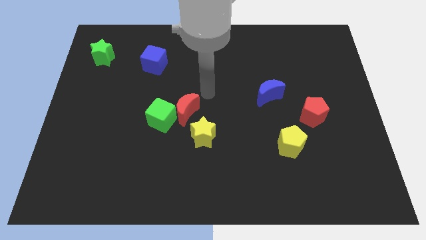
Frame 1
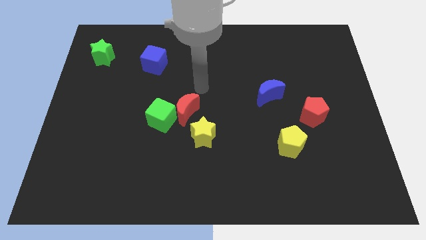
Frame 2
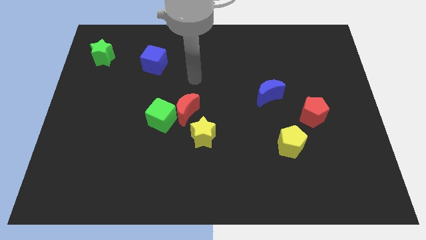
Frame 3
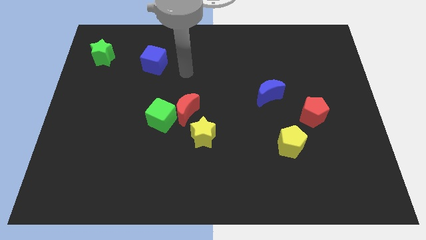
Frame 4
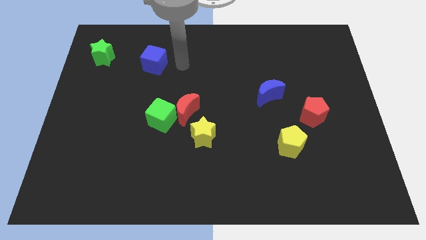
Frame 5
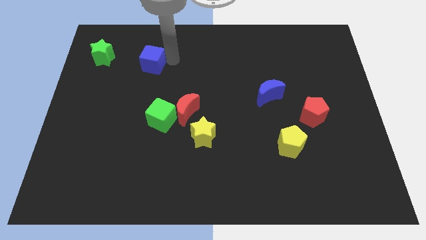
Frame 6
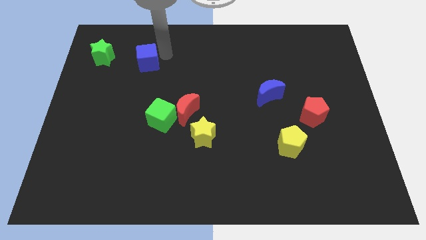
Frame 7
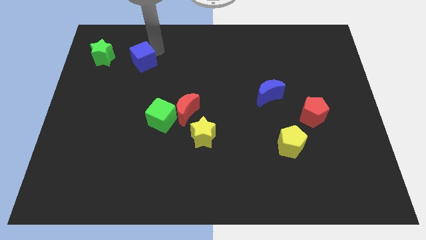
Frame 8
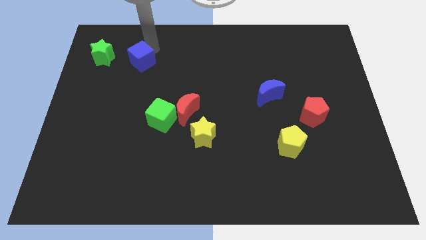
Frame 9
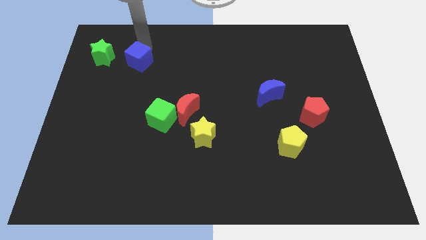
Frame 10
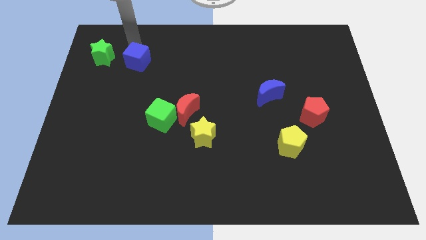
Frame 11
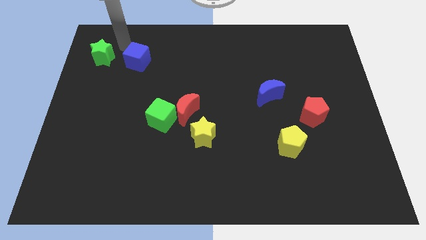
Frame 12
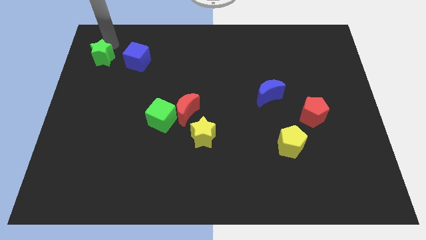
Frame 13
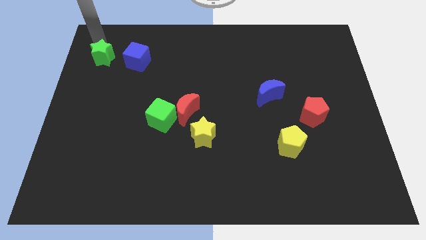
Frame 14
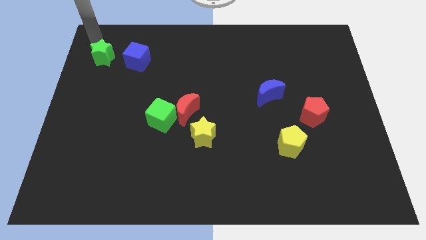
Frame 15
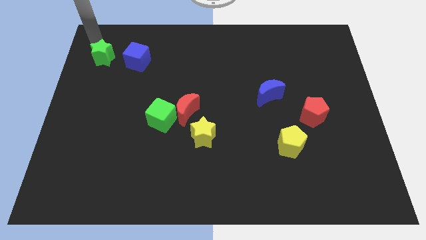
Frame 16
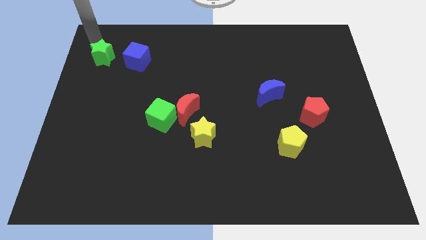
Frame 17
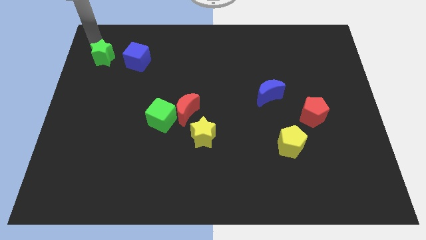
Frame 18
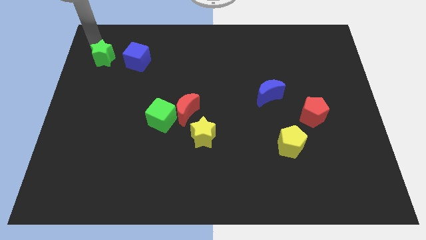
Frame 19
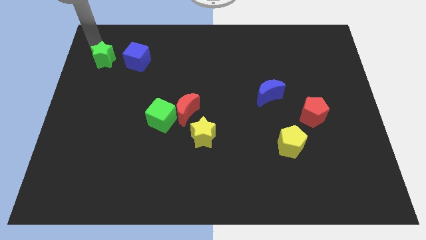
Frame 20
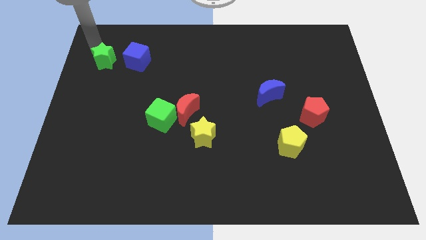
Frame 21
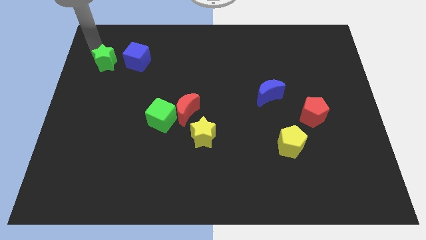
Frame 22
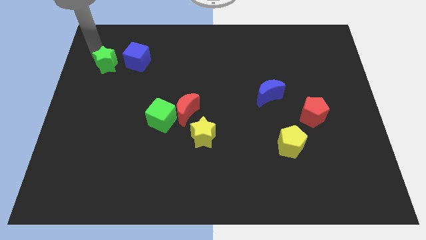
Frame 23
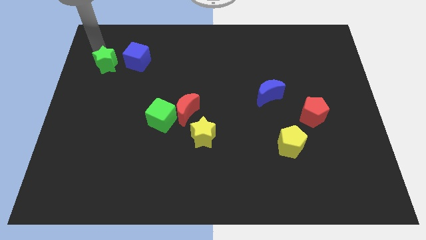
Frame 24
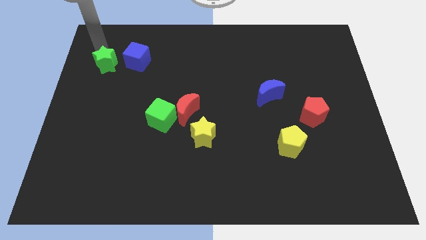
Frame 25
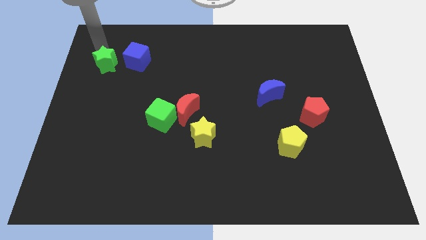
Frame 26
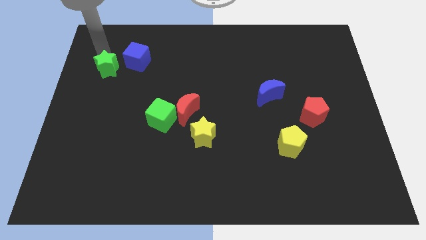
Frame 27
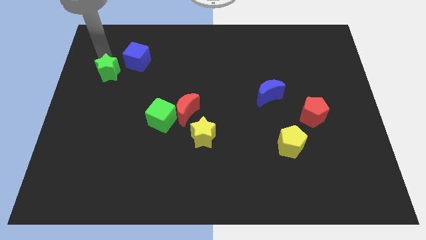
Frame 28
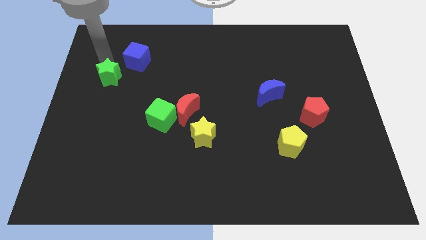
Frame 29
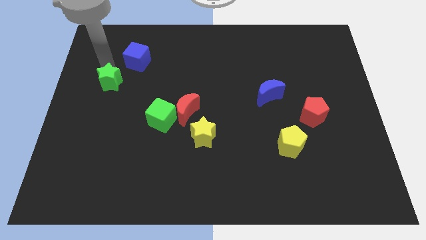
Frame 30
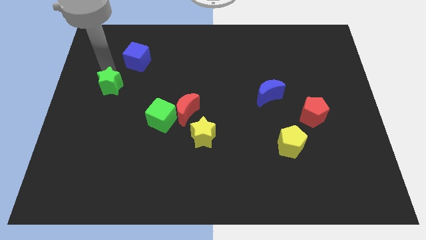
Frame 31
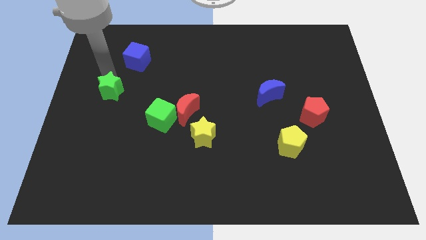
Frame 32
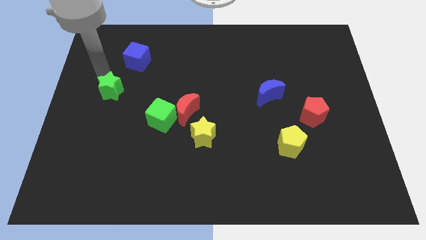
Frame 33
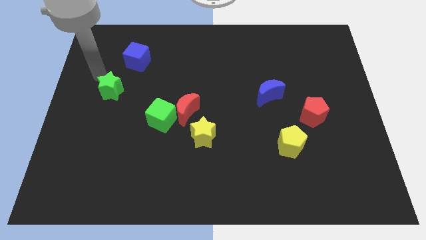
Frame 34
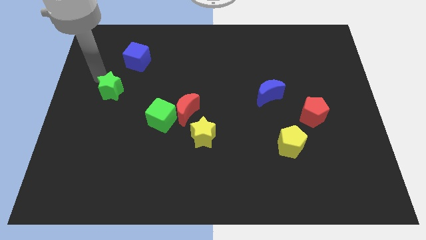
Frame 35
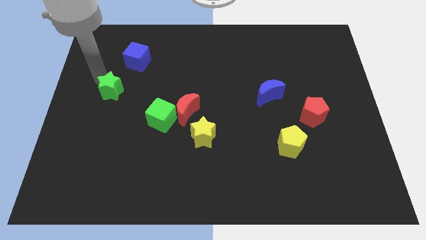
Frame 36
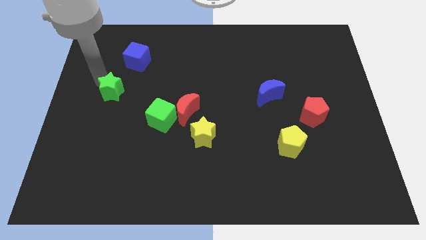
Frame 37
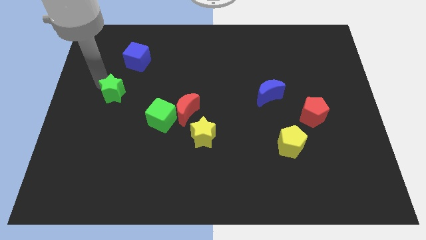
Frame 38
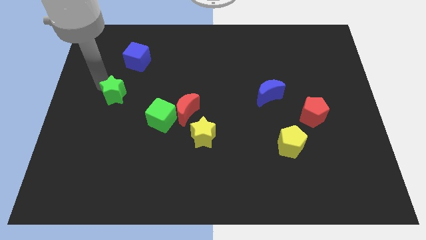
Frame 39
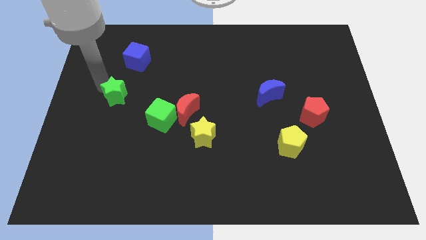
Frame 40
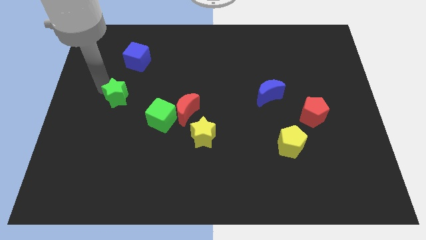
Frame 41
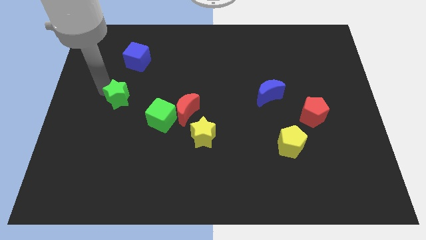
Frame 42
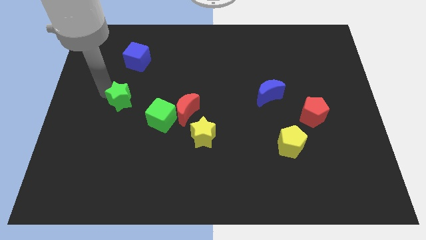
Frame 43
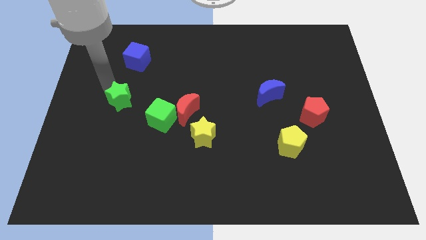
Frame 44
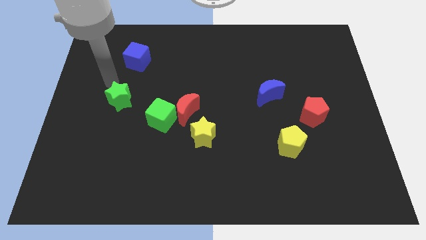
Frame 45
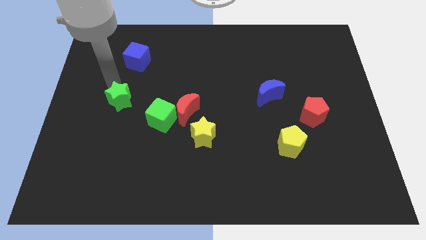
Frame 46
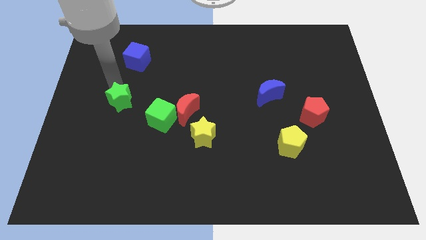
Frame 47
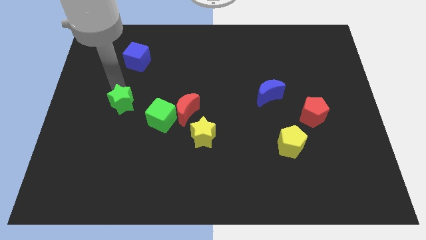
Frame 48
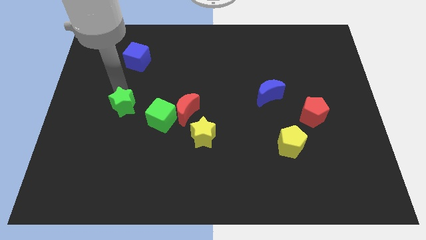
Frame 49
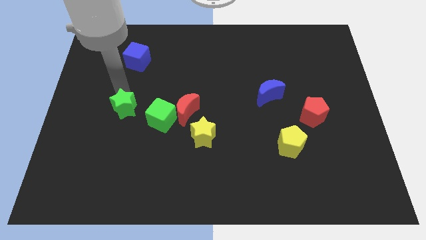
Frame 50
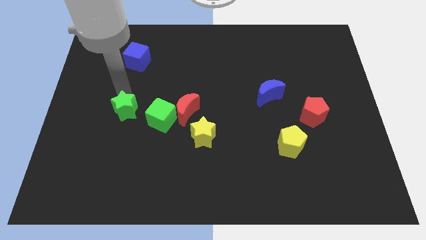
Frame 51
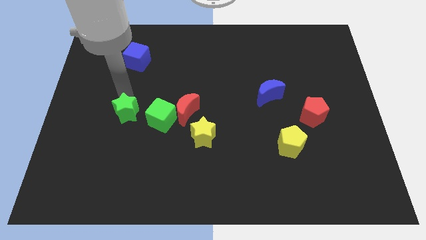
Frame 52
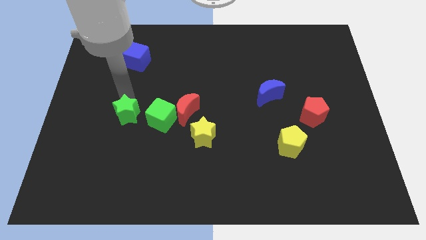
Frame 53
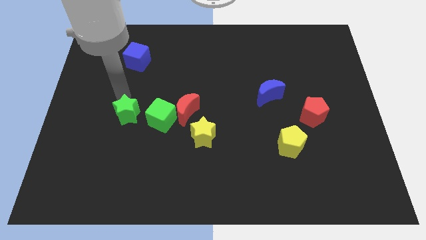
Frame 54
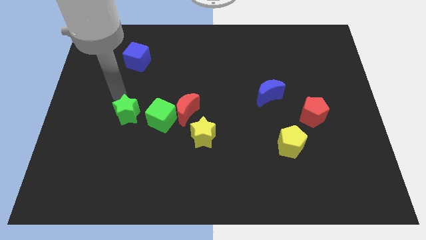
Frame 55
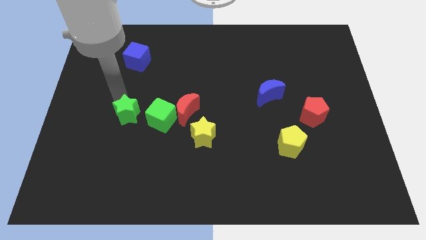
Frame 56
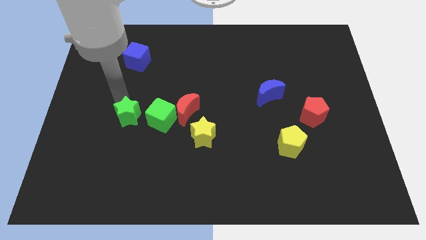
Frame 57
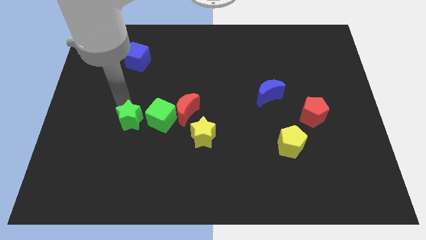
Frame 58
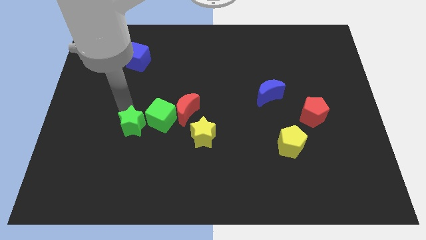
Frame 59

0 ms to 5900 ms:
slide the green star downwards and to the right diagonally

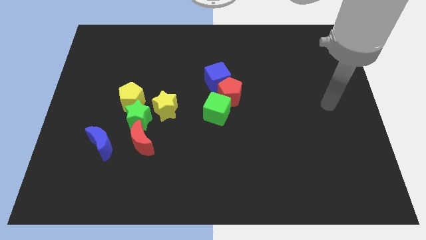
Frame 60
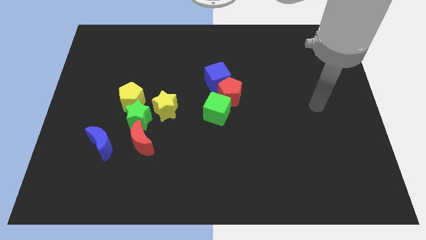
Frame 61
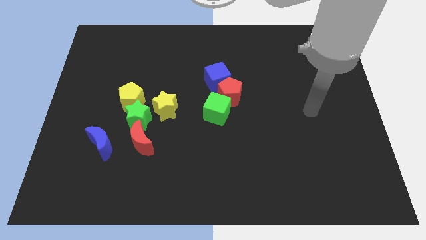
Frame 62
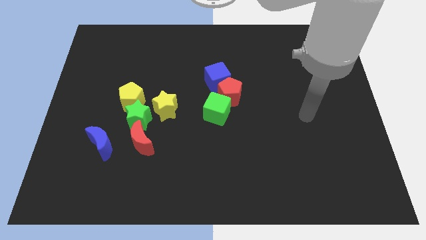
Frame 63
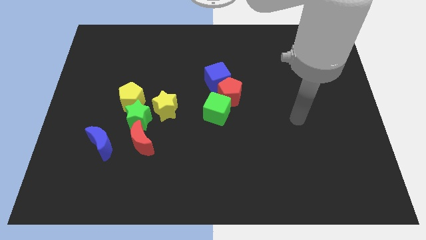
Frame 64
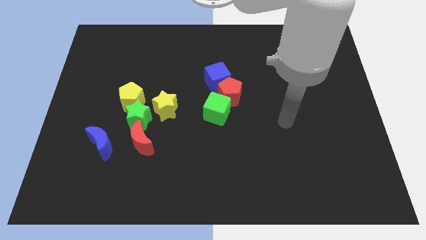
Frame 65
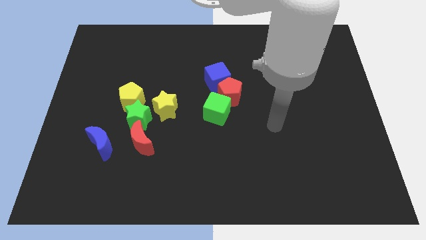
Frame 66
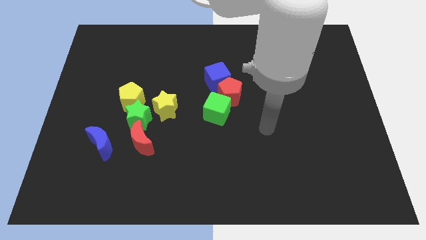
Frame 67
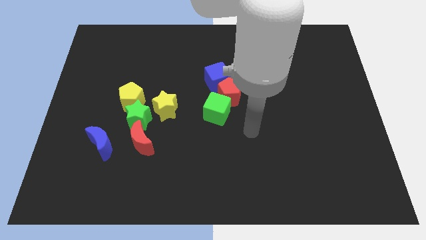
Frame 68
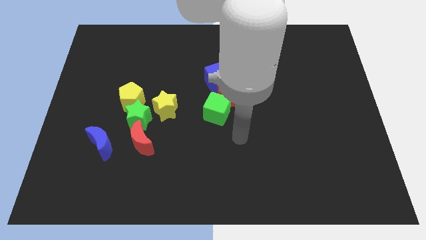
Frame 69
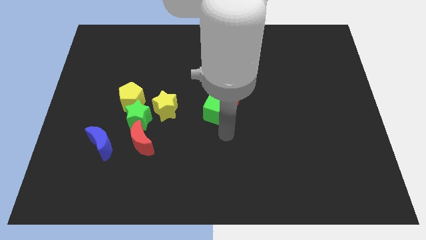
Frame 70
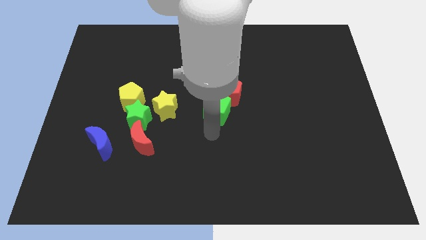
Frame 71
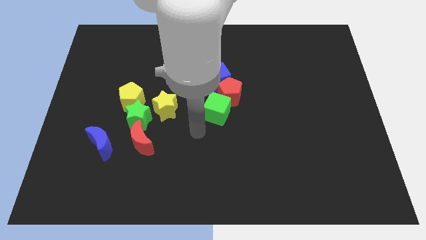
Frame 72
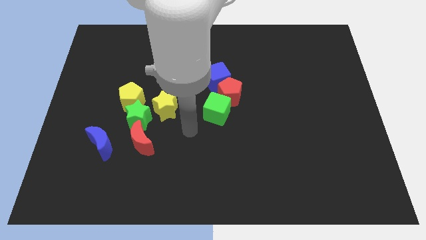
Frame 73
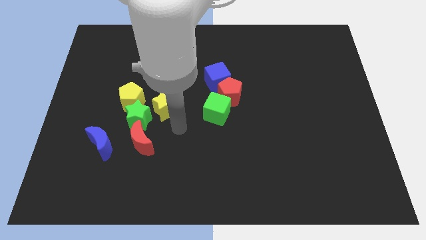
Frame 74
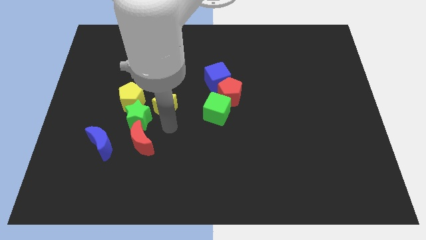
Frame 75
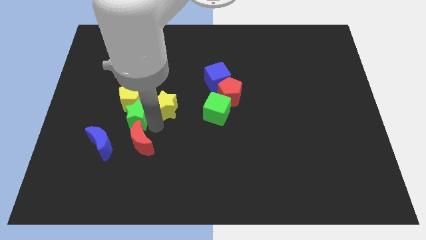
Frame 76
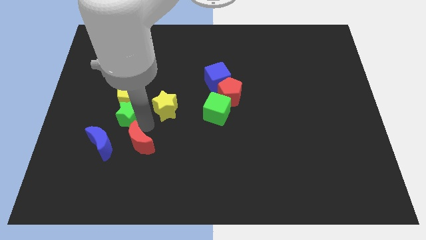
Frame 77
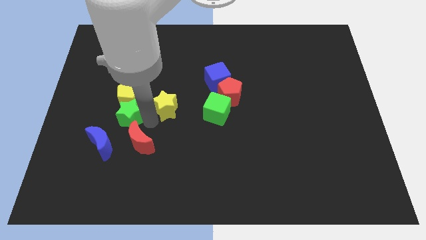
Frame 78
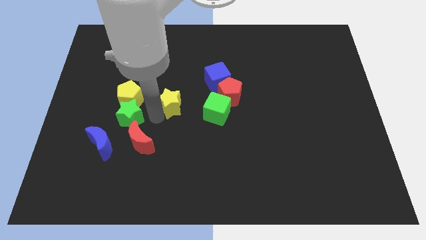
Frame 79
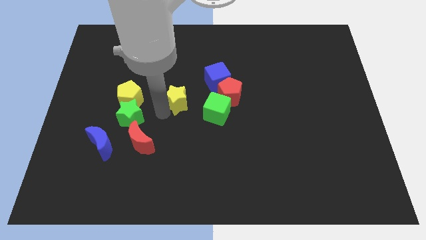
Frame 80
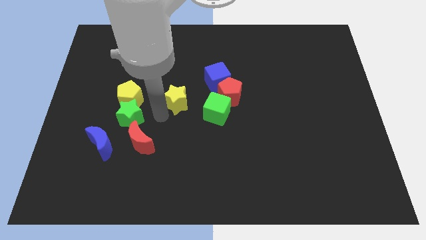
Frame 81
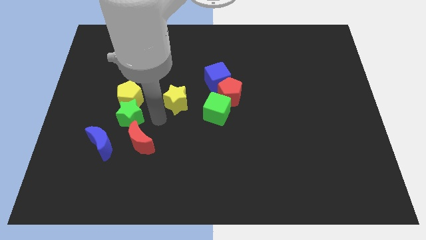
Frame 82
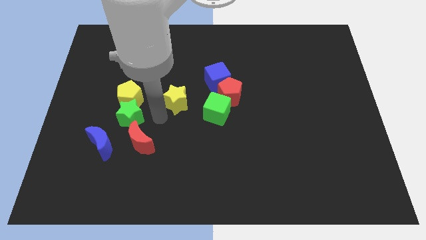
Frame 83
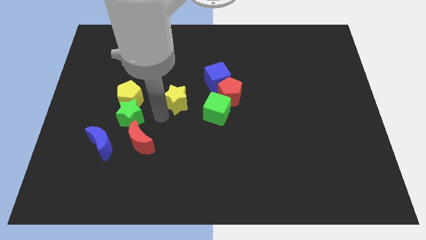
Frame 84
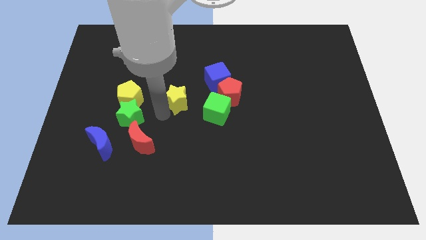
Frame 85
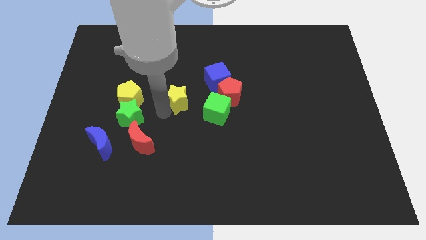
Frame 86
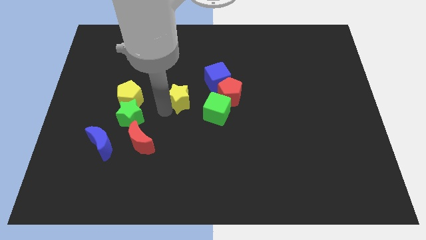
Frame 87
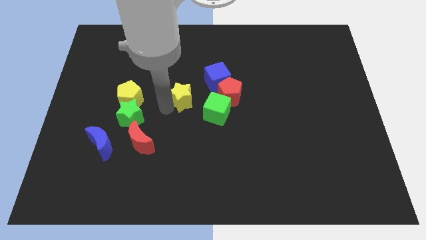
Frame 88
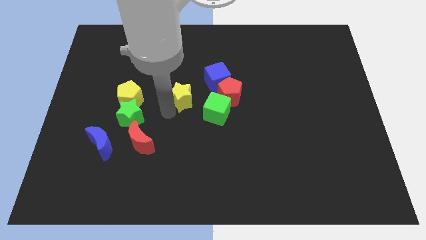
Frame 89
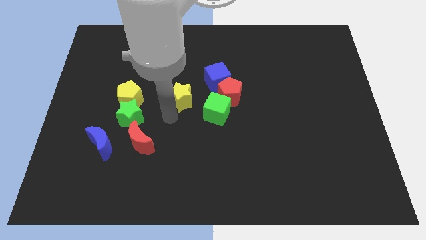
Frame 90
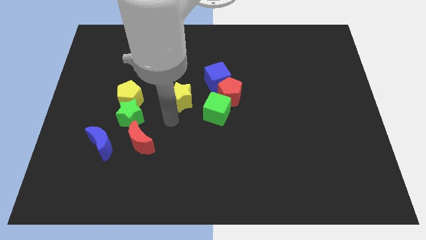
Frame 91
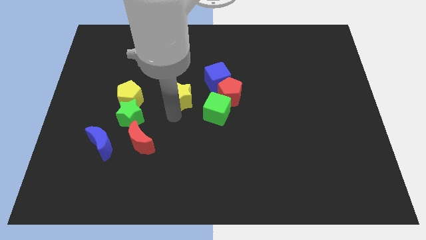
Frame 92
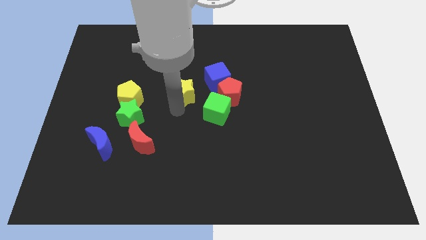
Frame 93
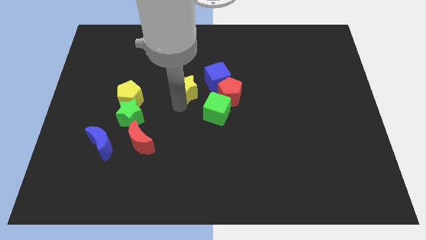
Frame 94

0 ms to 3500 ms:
push the yellow star a little upwards and right
